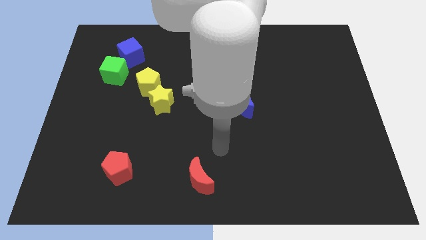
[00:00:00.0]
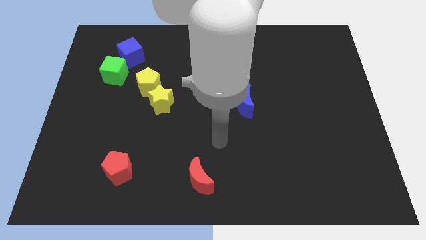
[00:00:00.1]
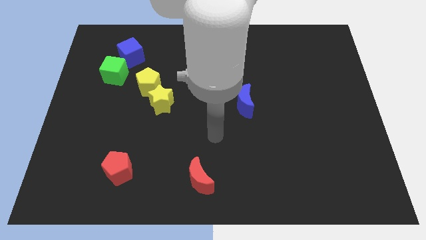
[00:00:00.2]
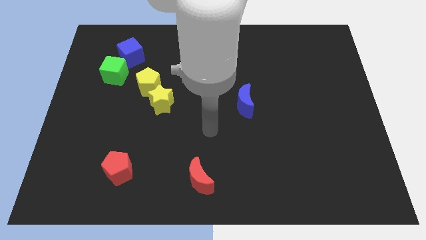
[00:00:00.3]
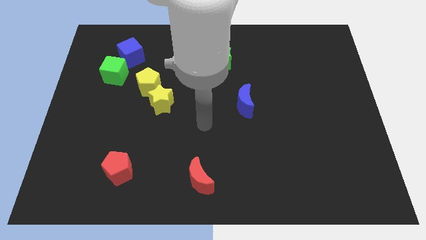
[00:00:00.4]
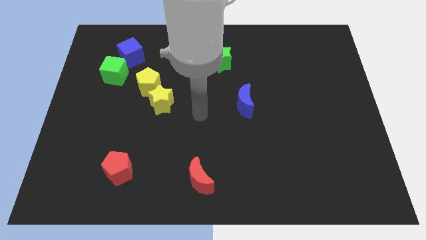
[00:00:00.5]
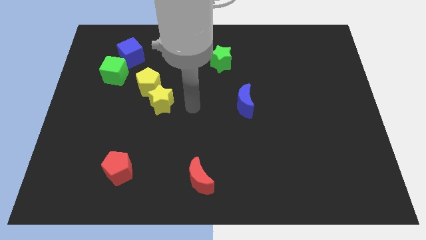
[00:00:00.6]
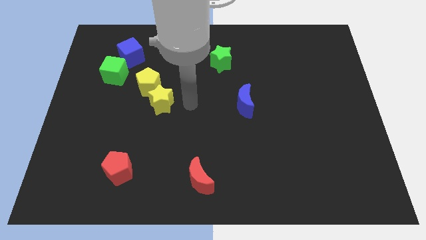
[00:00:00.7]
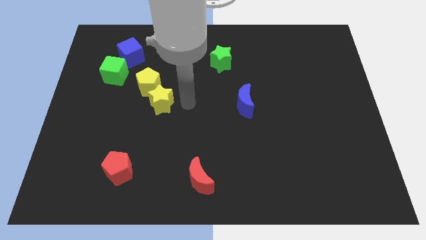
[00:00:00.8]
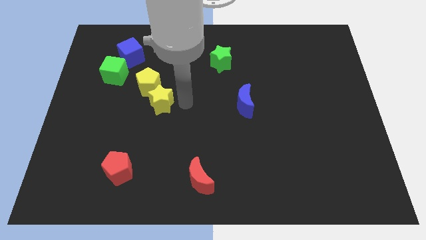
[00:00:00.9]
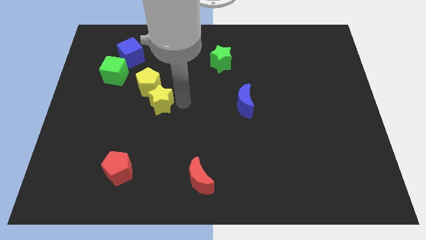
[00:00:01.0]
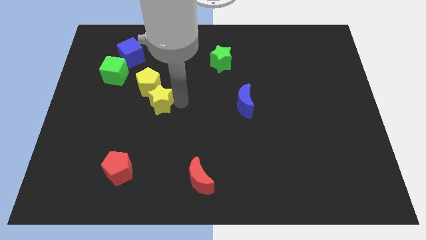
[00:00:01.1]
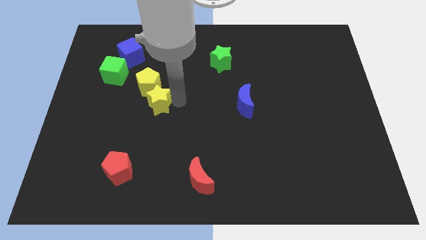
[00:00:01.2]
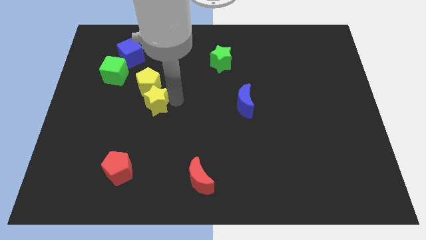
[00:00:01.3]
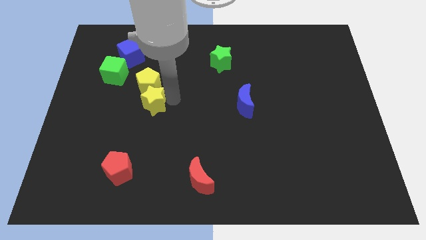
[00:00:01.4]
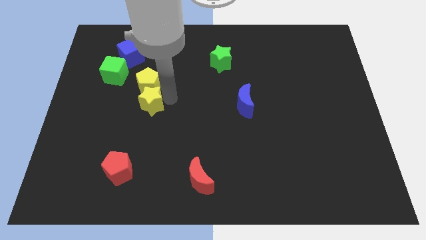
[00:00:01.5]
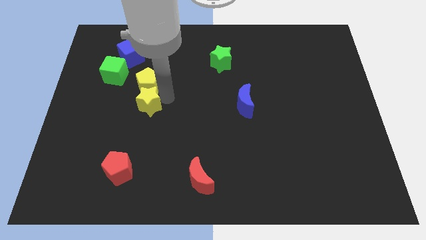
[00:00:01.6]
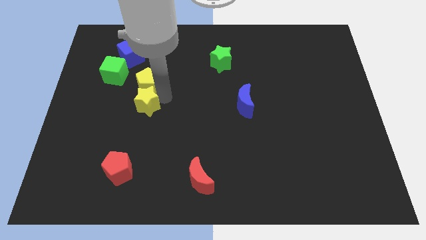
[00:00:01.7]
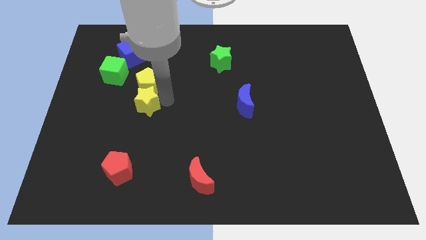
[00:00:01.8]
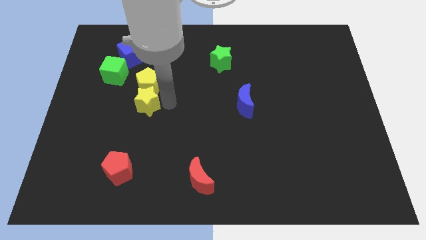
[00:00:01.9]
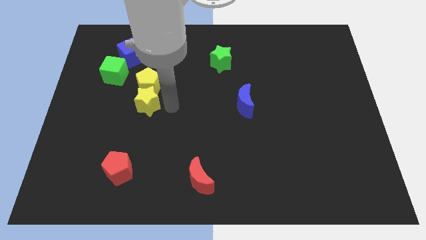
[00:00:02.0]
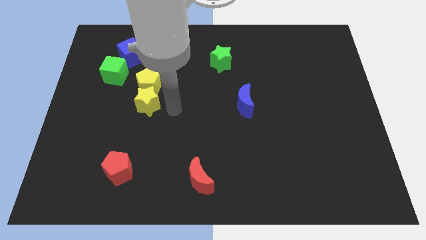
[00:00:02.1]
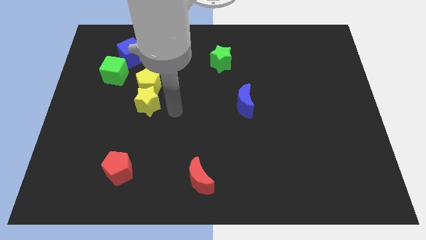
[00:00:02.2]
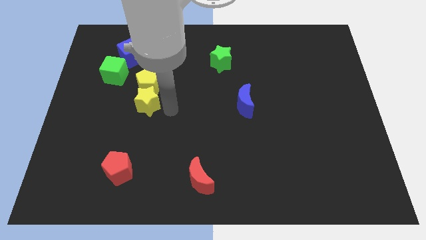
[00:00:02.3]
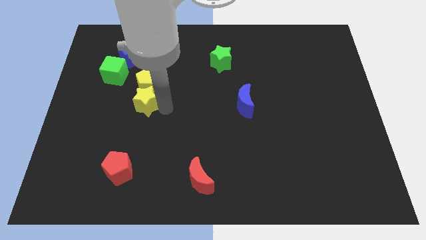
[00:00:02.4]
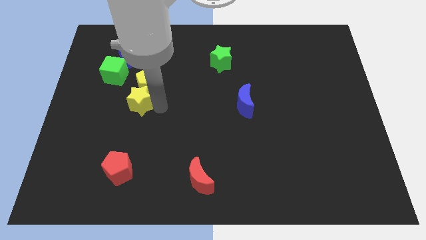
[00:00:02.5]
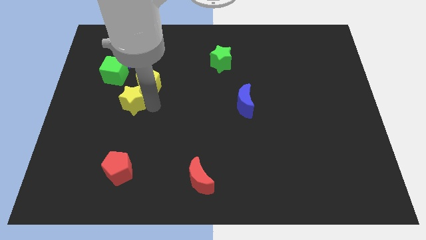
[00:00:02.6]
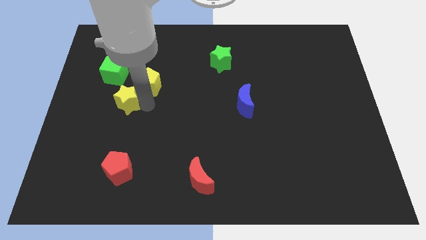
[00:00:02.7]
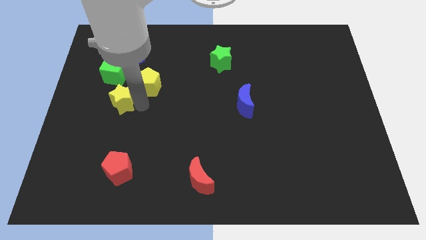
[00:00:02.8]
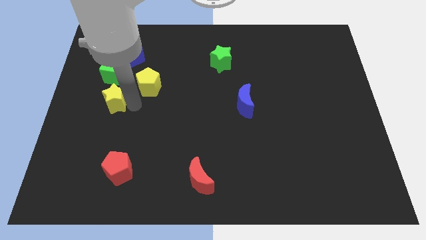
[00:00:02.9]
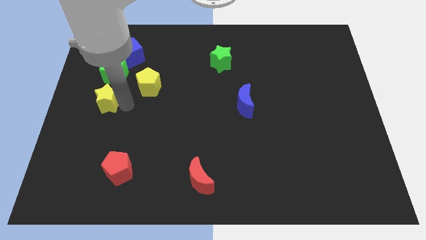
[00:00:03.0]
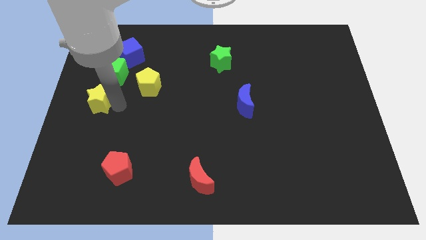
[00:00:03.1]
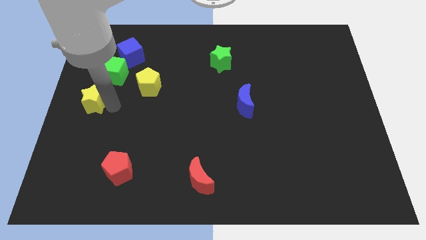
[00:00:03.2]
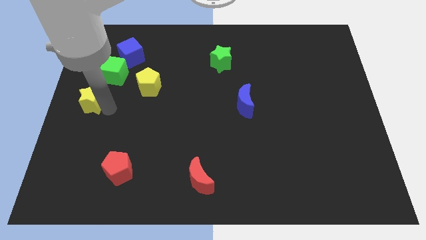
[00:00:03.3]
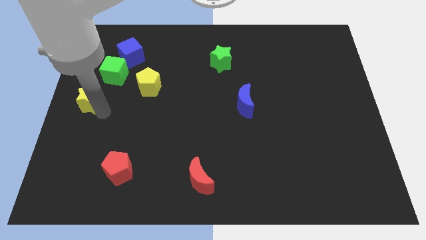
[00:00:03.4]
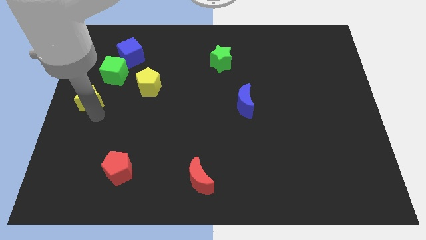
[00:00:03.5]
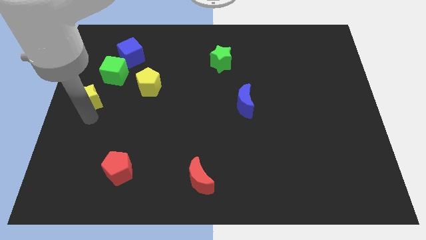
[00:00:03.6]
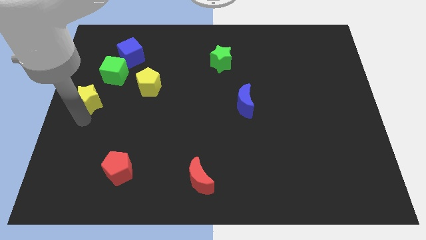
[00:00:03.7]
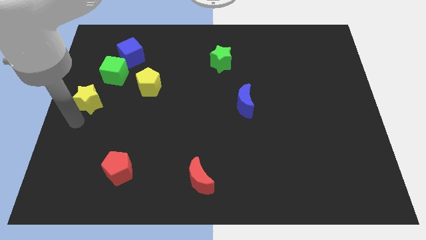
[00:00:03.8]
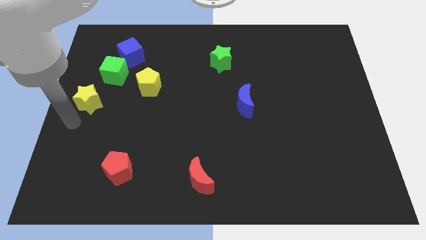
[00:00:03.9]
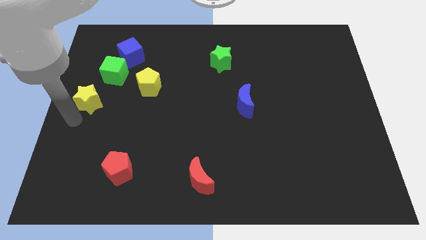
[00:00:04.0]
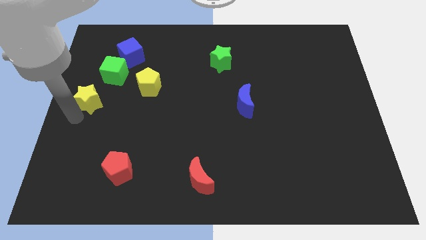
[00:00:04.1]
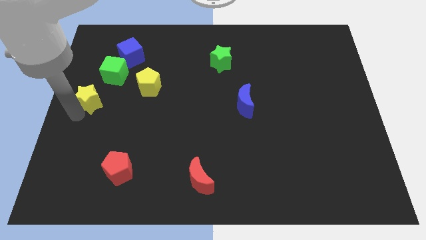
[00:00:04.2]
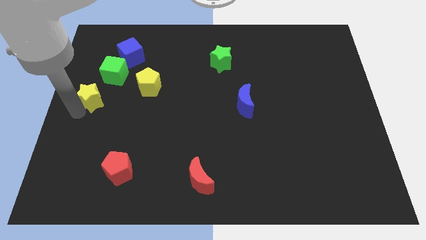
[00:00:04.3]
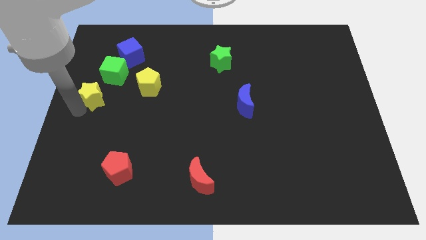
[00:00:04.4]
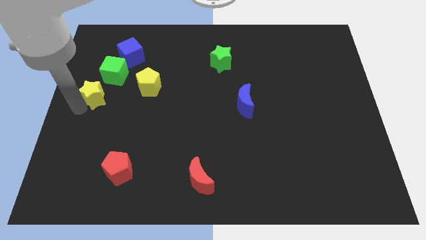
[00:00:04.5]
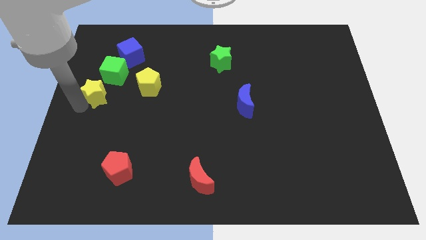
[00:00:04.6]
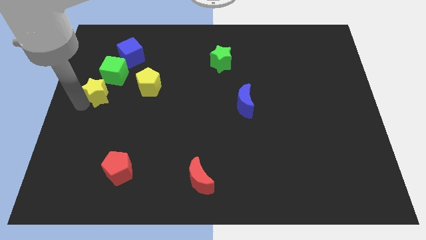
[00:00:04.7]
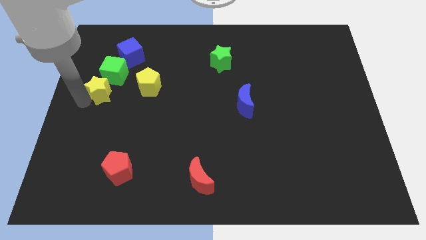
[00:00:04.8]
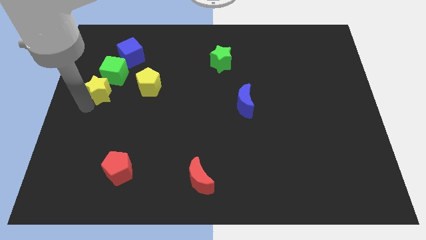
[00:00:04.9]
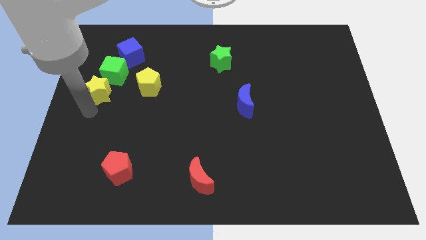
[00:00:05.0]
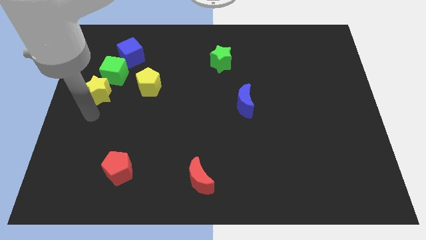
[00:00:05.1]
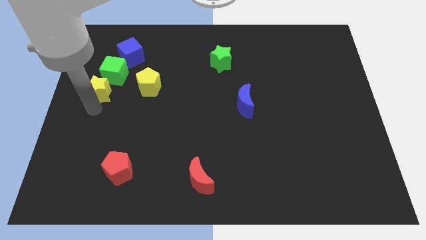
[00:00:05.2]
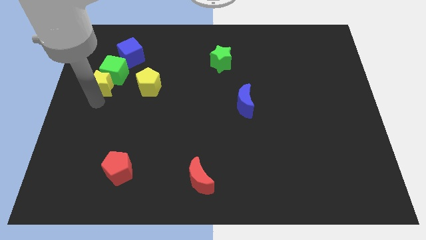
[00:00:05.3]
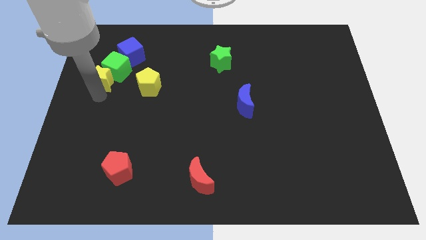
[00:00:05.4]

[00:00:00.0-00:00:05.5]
slide the yellow star diagonally down and to the left of the blue cube

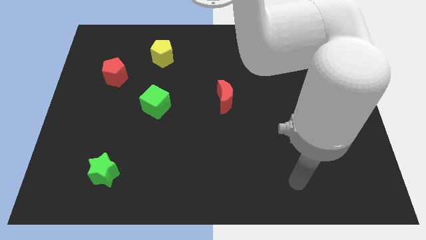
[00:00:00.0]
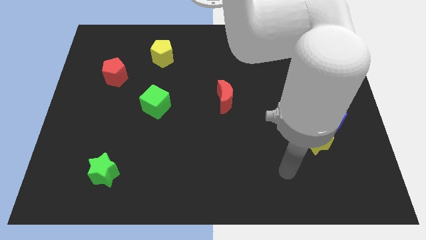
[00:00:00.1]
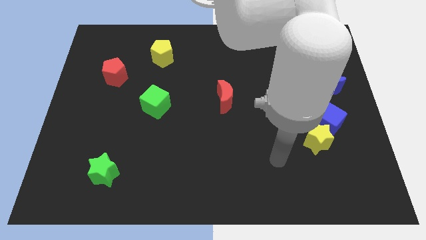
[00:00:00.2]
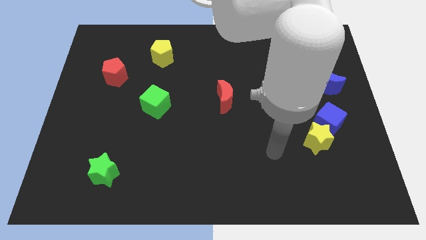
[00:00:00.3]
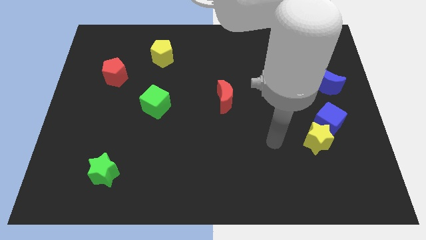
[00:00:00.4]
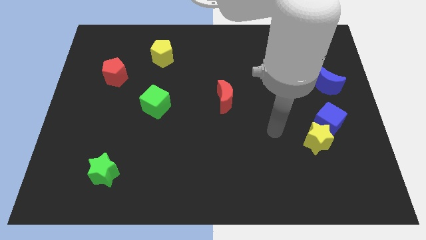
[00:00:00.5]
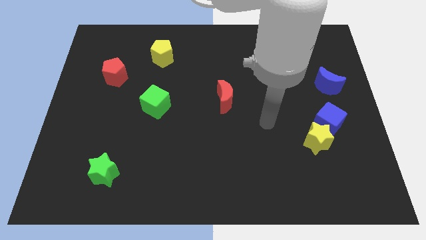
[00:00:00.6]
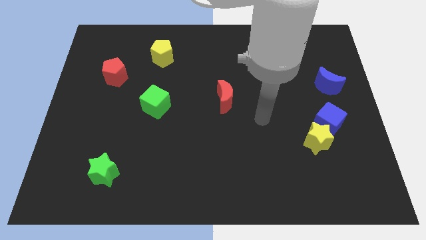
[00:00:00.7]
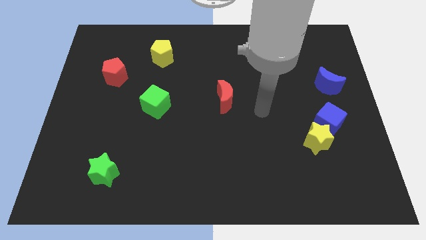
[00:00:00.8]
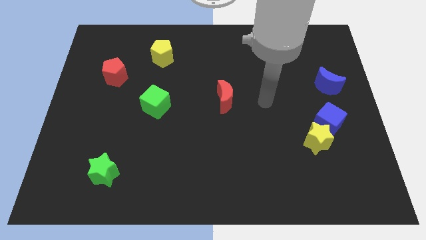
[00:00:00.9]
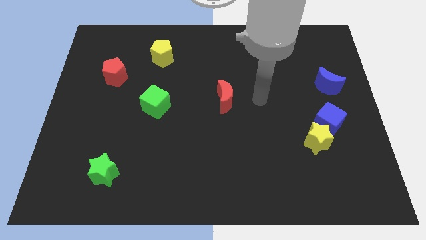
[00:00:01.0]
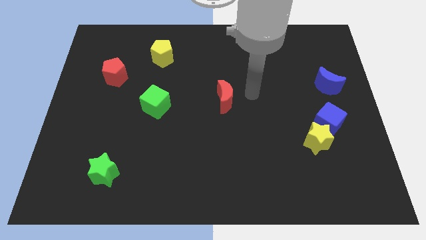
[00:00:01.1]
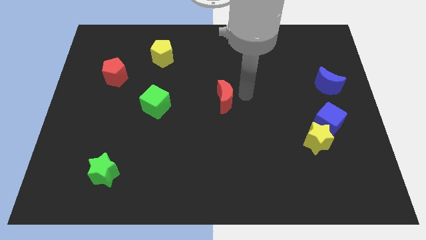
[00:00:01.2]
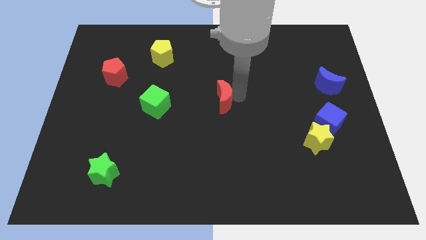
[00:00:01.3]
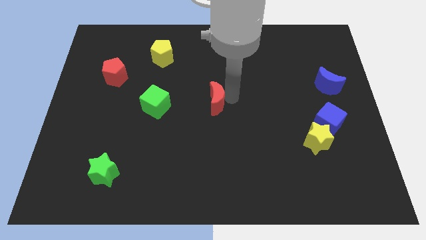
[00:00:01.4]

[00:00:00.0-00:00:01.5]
put the red moon to the right of the green cube

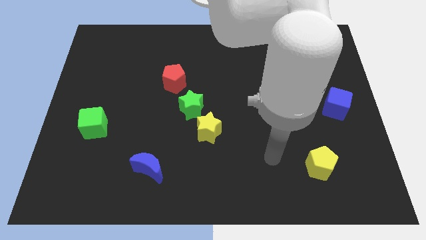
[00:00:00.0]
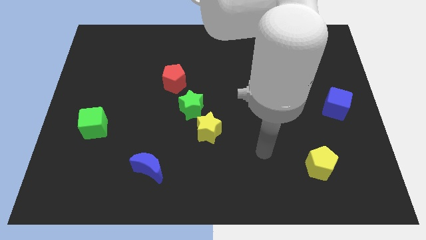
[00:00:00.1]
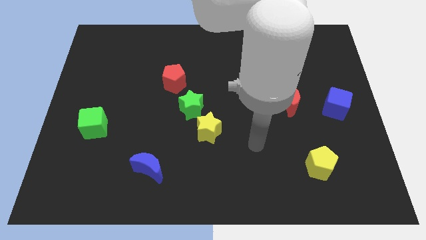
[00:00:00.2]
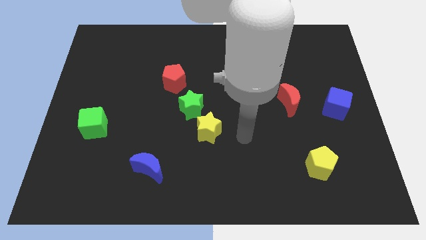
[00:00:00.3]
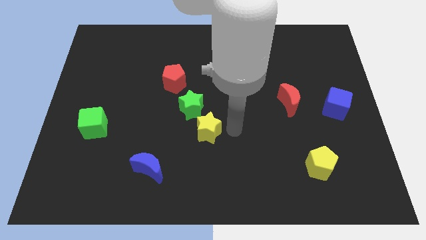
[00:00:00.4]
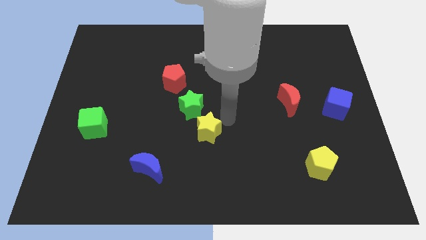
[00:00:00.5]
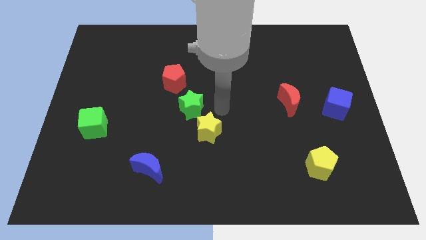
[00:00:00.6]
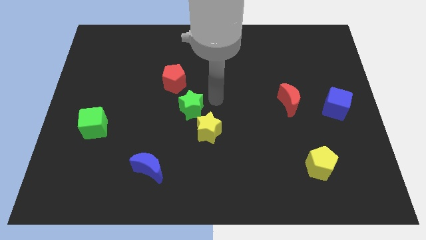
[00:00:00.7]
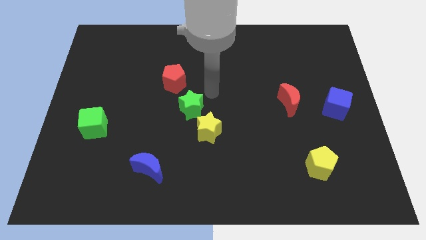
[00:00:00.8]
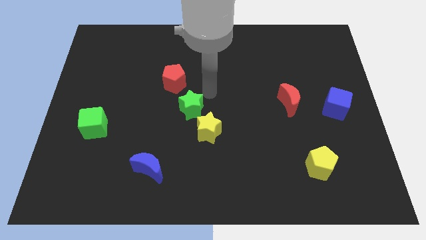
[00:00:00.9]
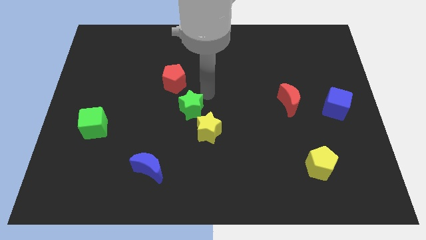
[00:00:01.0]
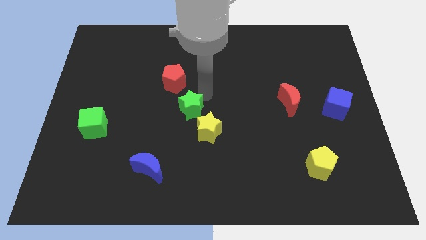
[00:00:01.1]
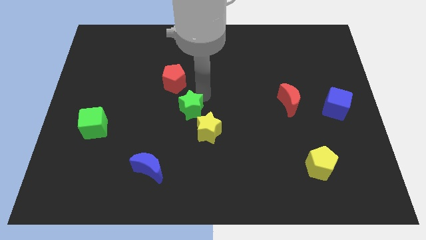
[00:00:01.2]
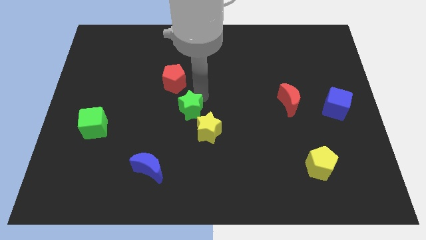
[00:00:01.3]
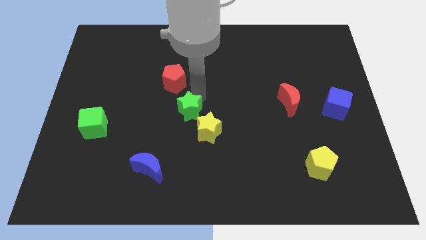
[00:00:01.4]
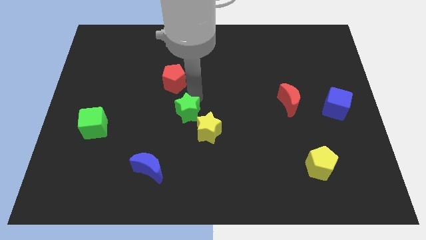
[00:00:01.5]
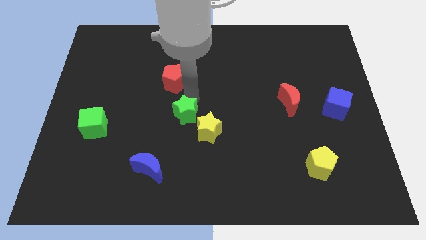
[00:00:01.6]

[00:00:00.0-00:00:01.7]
put the green star left of the yellow star
